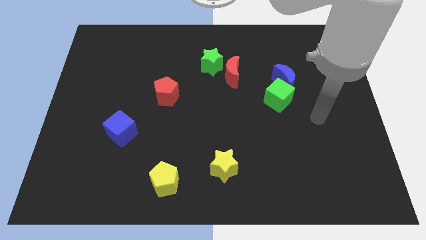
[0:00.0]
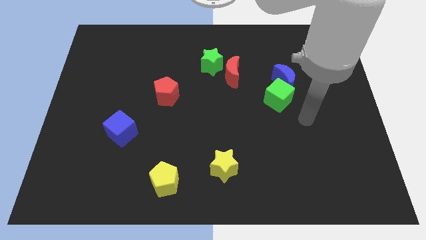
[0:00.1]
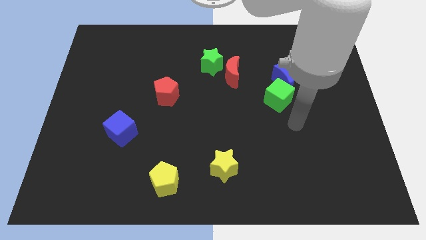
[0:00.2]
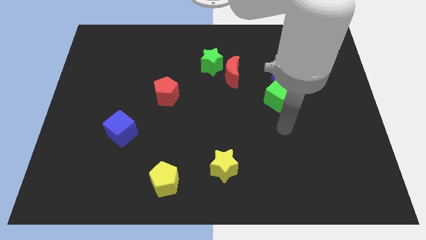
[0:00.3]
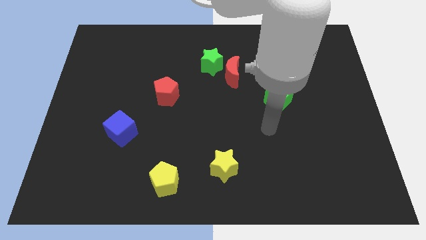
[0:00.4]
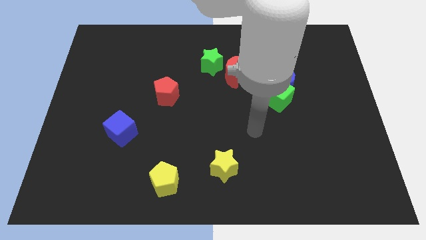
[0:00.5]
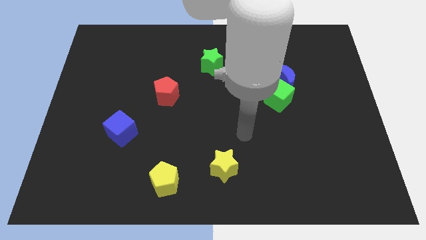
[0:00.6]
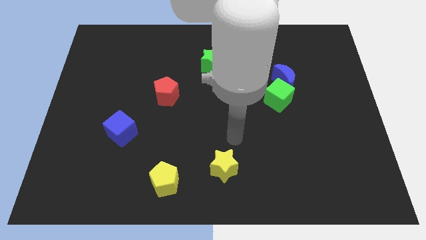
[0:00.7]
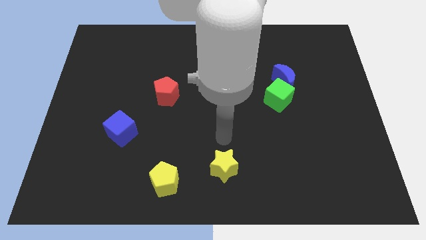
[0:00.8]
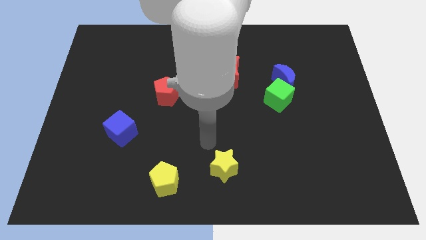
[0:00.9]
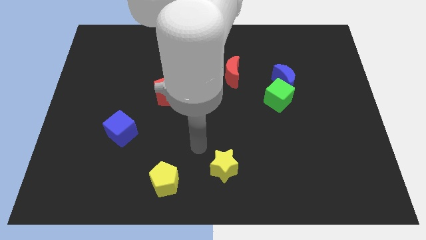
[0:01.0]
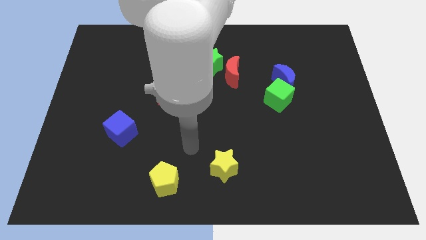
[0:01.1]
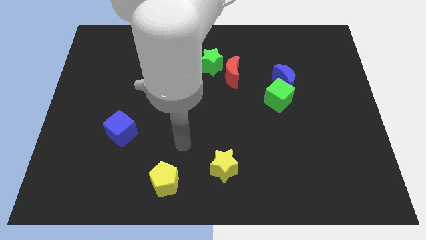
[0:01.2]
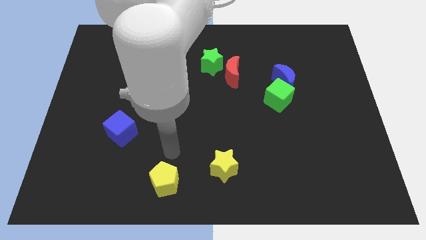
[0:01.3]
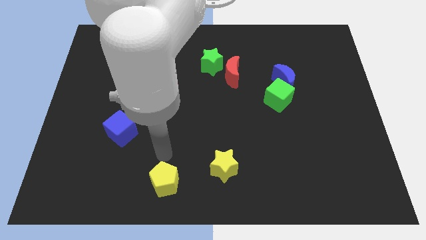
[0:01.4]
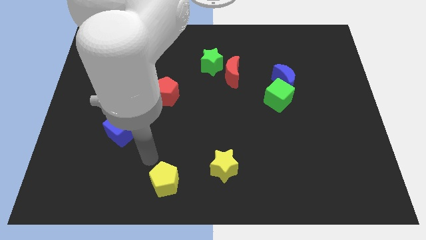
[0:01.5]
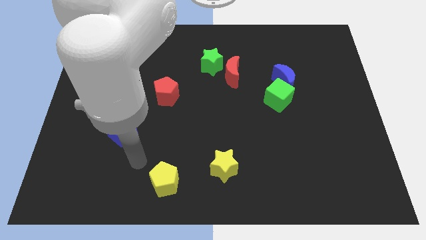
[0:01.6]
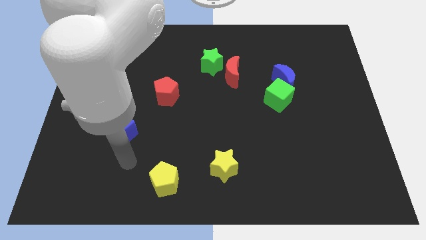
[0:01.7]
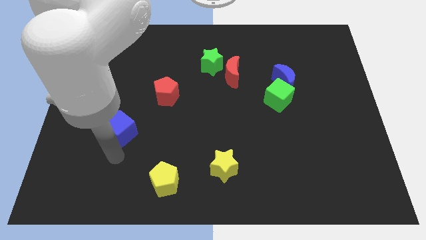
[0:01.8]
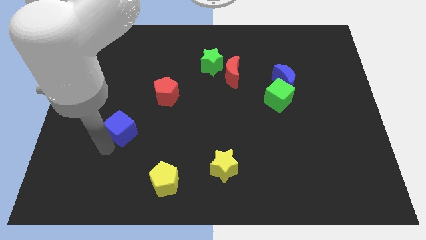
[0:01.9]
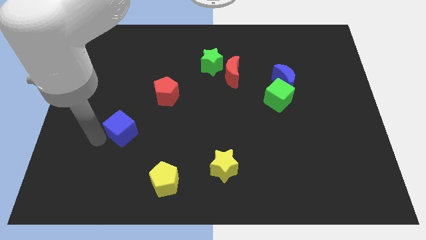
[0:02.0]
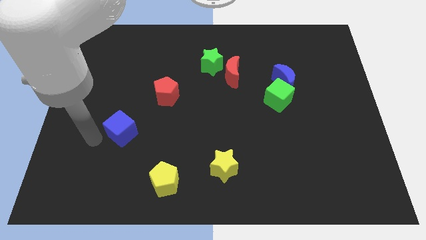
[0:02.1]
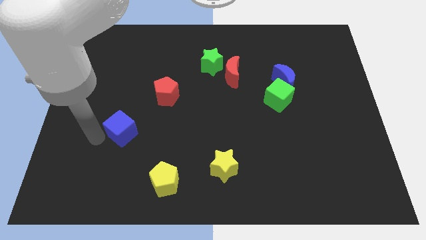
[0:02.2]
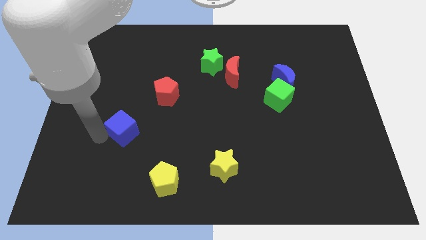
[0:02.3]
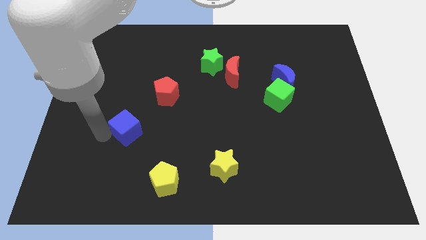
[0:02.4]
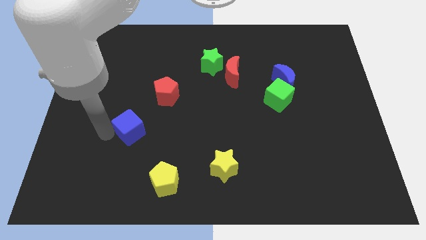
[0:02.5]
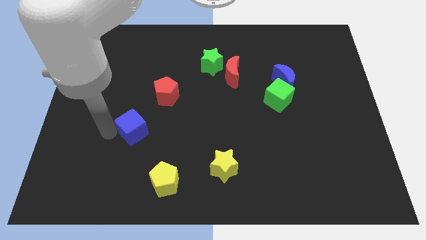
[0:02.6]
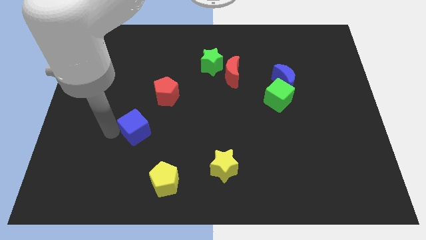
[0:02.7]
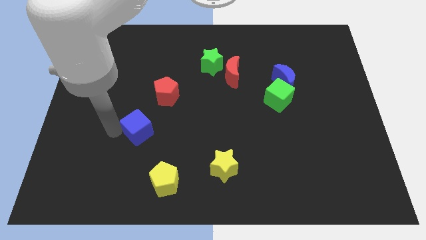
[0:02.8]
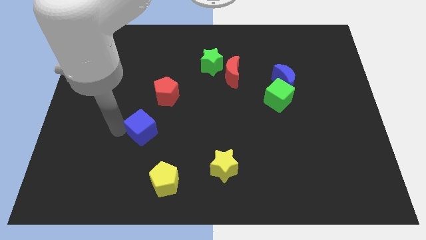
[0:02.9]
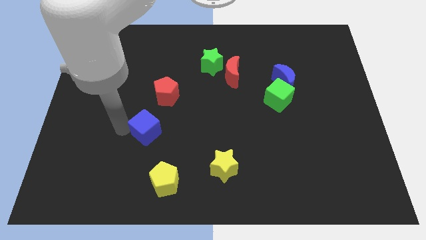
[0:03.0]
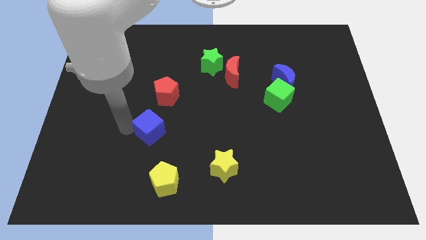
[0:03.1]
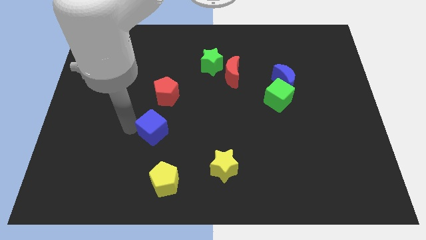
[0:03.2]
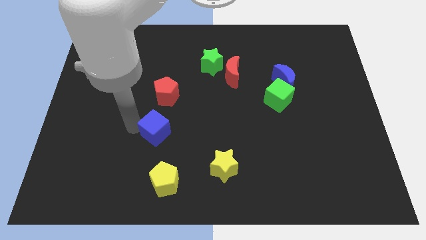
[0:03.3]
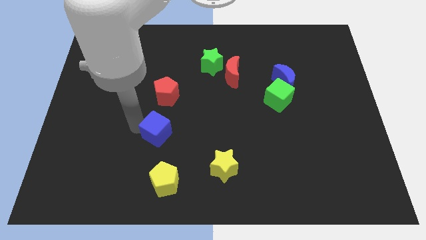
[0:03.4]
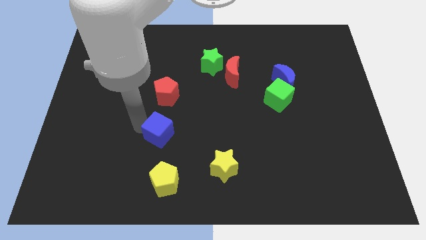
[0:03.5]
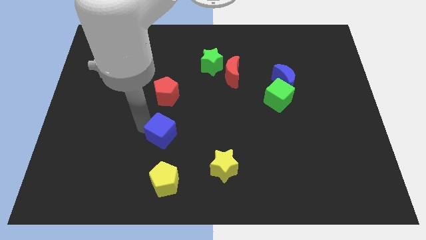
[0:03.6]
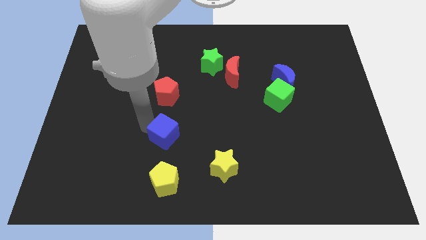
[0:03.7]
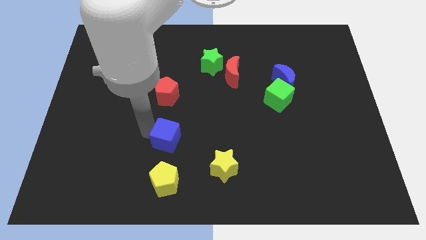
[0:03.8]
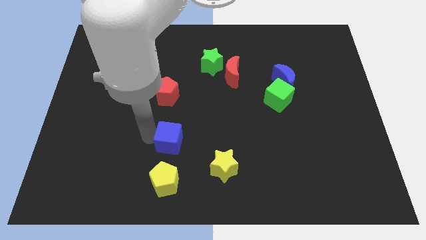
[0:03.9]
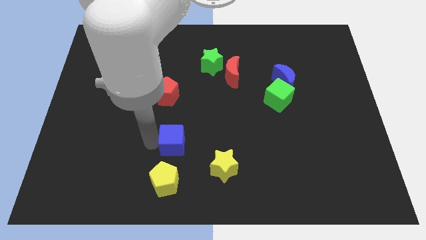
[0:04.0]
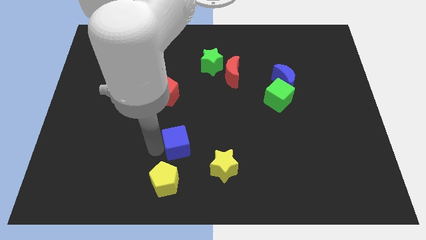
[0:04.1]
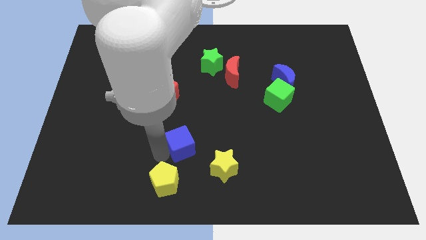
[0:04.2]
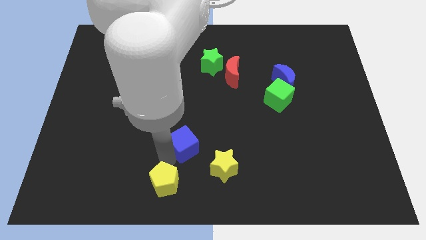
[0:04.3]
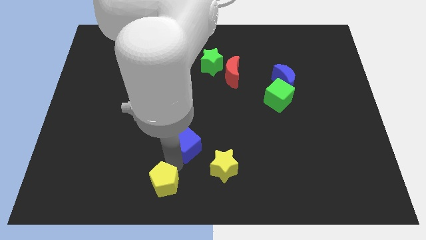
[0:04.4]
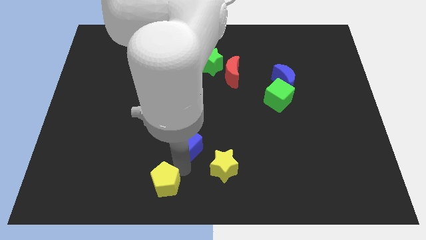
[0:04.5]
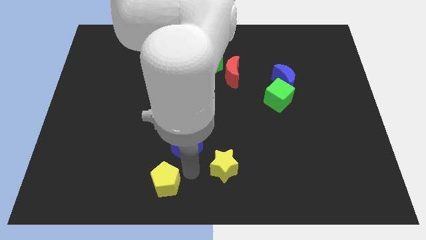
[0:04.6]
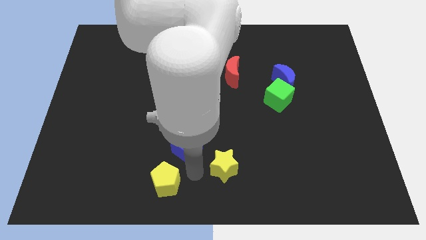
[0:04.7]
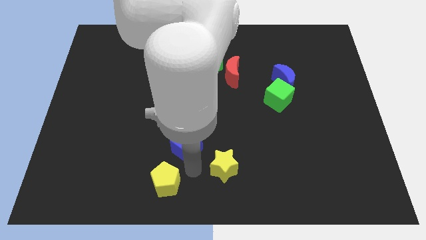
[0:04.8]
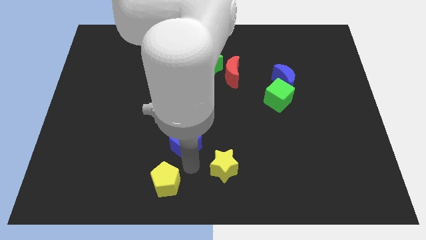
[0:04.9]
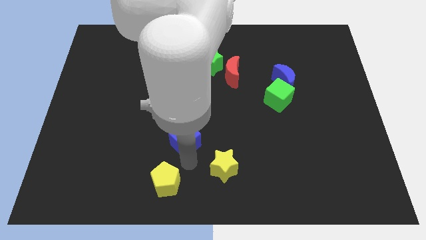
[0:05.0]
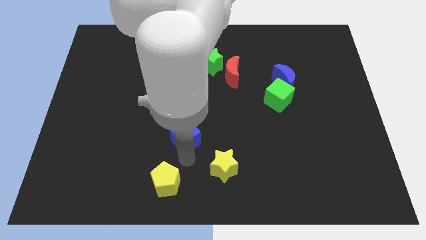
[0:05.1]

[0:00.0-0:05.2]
slide the blue cube to the center of the board

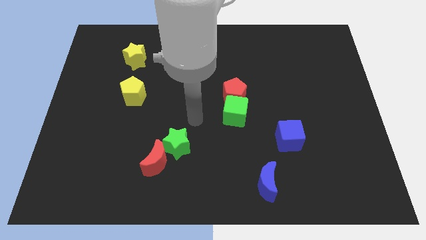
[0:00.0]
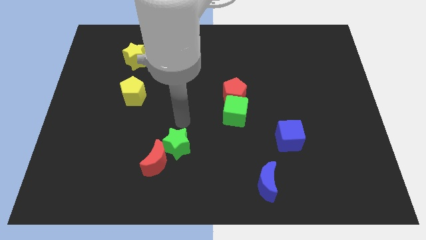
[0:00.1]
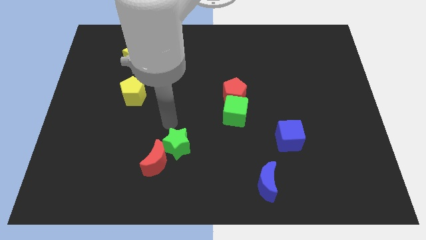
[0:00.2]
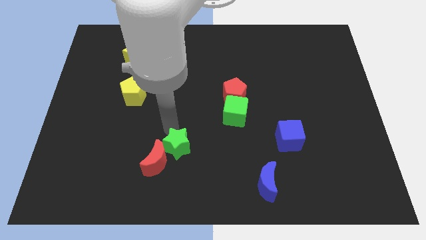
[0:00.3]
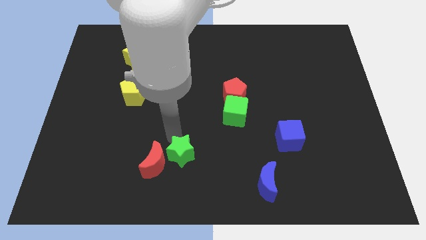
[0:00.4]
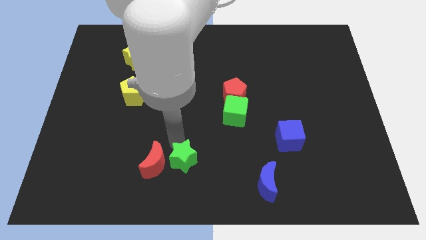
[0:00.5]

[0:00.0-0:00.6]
slide the green star to the bottom
